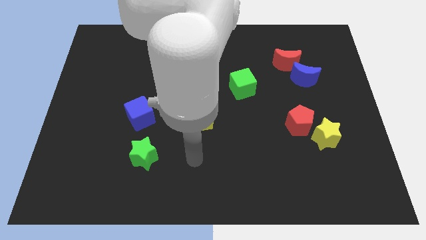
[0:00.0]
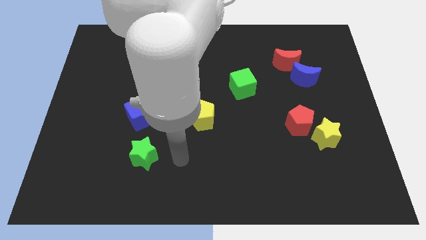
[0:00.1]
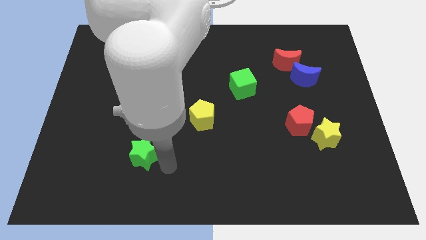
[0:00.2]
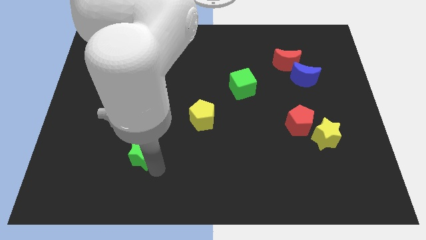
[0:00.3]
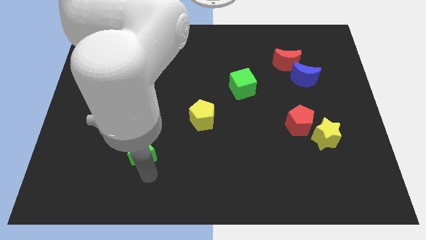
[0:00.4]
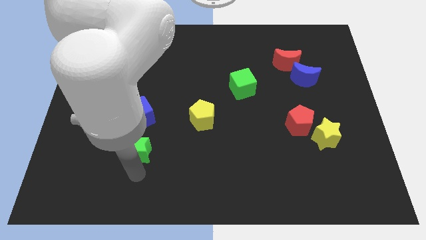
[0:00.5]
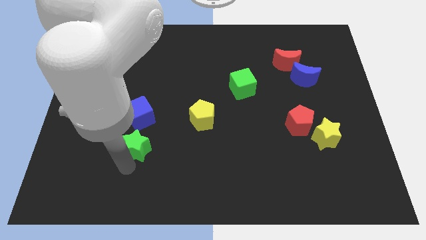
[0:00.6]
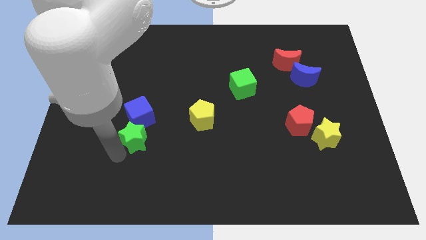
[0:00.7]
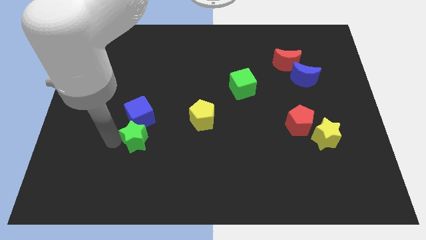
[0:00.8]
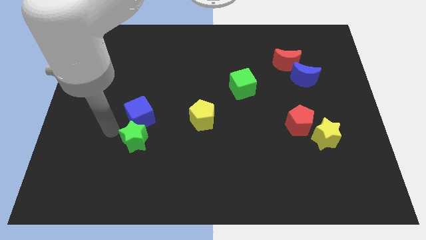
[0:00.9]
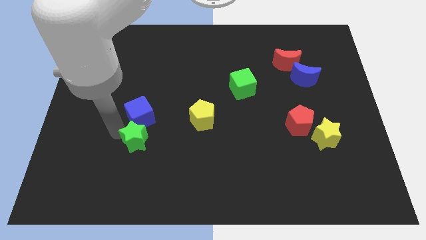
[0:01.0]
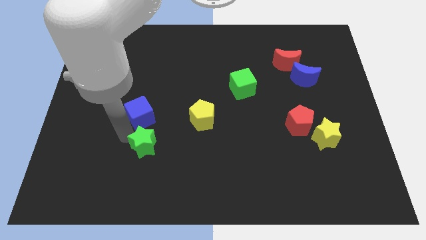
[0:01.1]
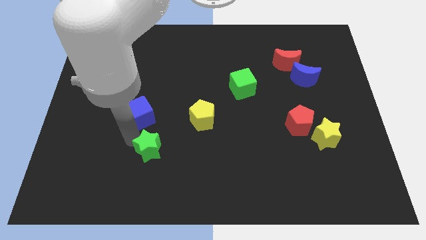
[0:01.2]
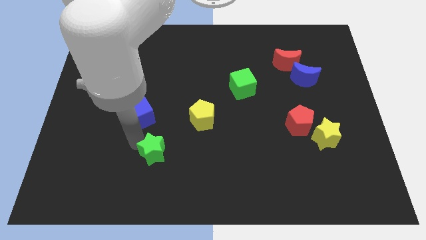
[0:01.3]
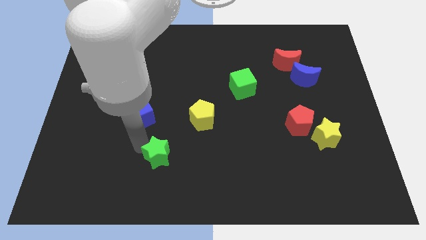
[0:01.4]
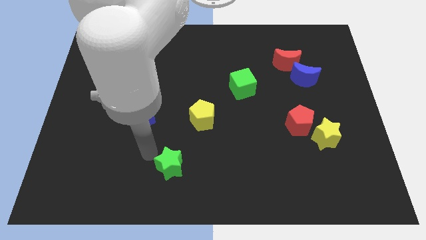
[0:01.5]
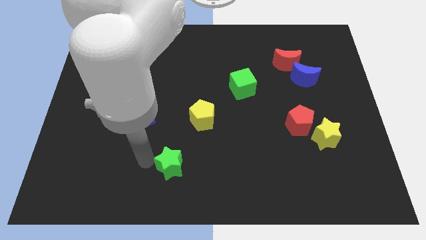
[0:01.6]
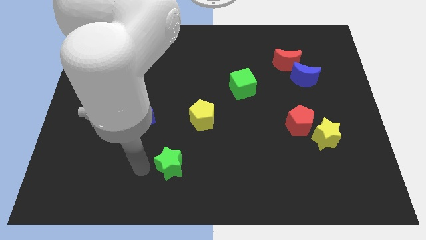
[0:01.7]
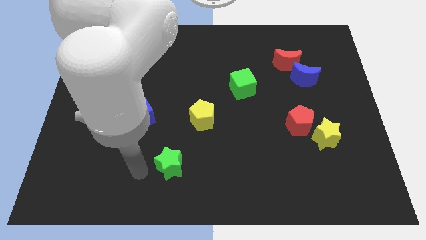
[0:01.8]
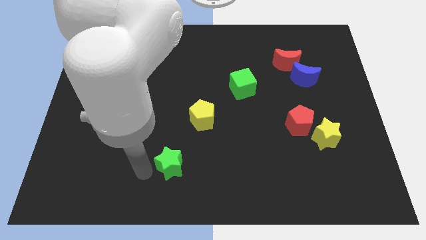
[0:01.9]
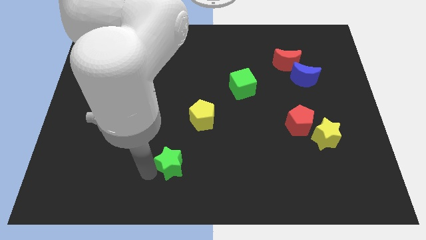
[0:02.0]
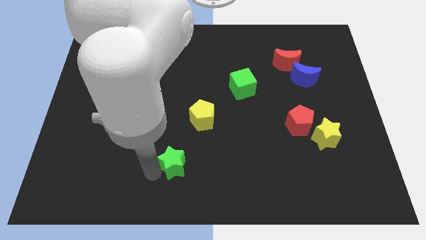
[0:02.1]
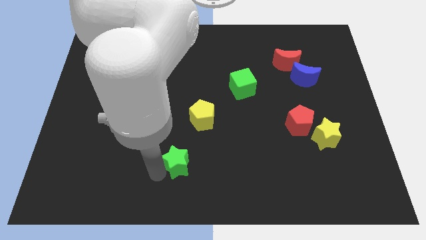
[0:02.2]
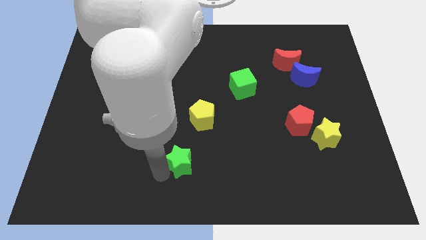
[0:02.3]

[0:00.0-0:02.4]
slightly move the green star right

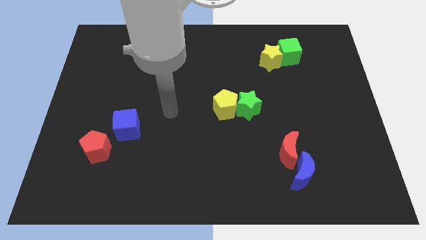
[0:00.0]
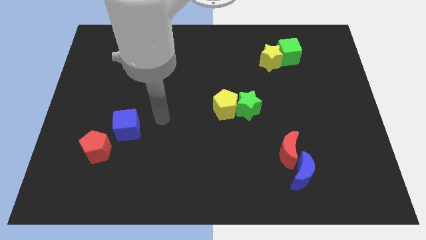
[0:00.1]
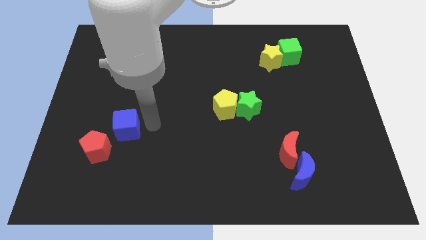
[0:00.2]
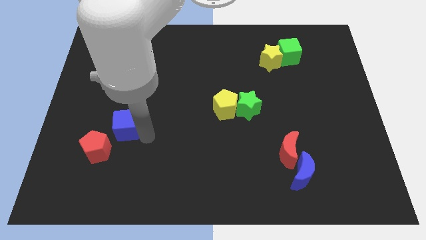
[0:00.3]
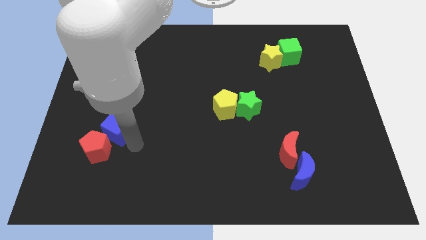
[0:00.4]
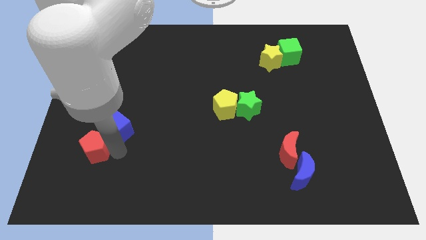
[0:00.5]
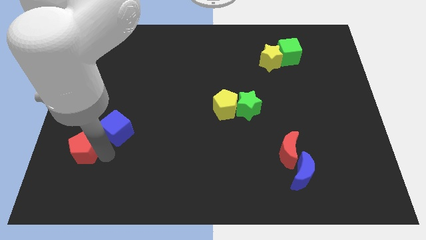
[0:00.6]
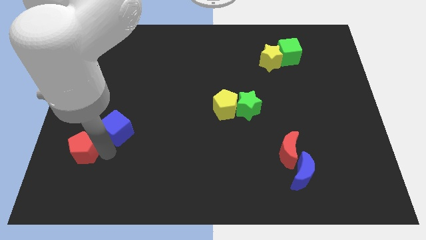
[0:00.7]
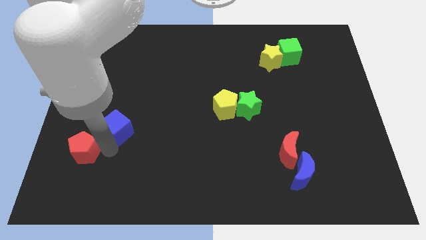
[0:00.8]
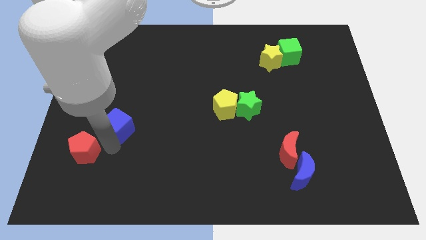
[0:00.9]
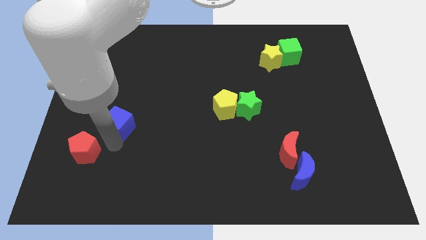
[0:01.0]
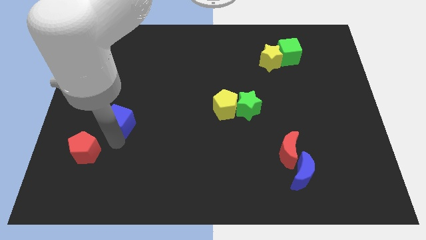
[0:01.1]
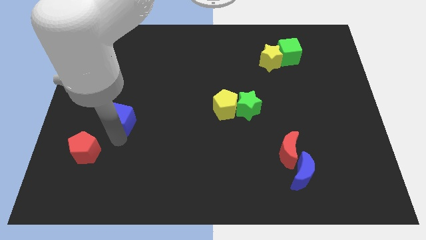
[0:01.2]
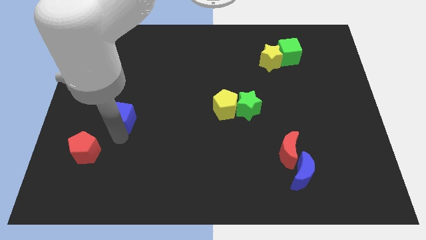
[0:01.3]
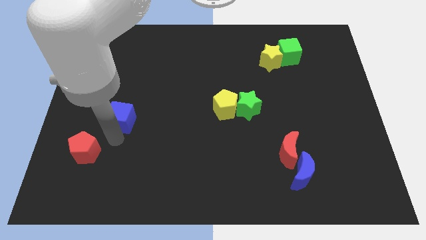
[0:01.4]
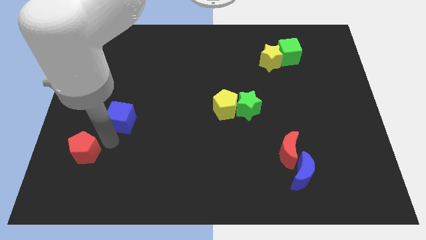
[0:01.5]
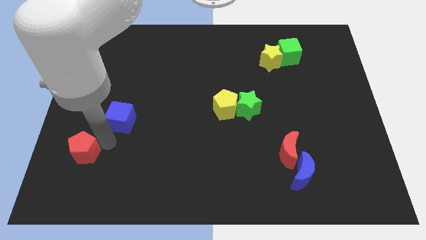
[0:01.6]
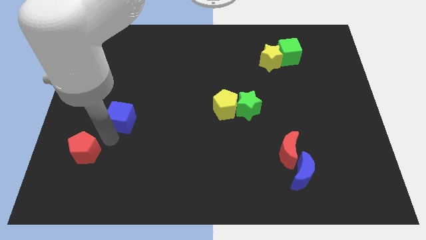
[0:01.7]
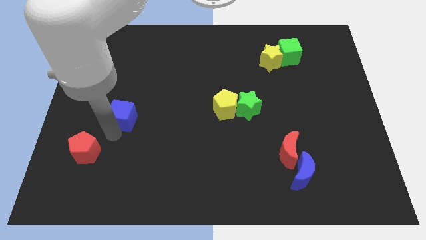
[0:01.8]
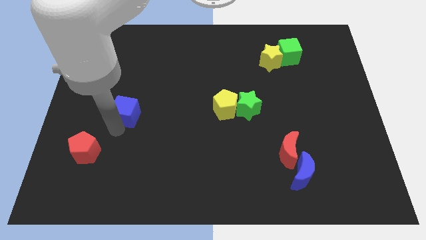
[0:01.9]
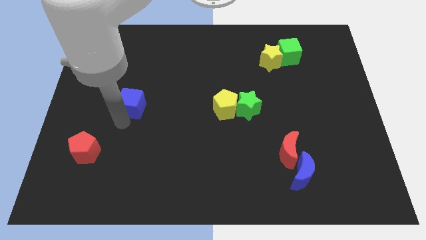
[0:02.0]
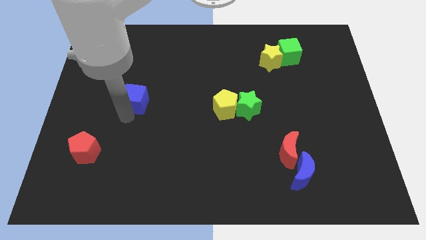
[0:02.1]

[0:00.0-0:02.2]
move the blue cube up slightly

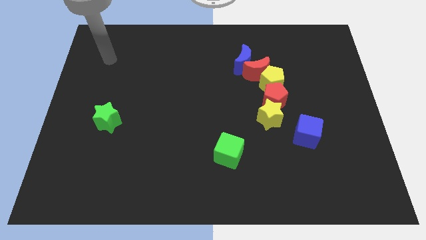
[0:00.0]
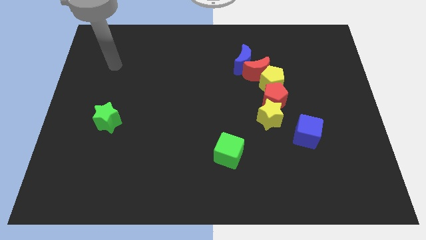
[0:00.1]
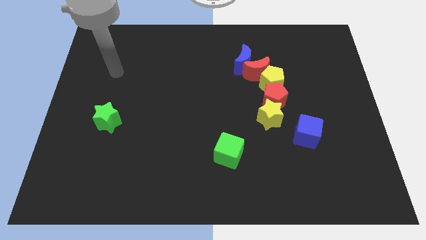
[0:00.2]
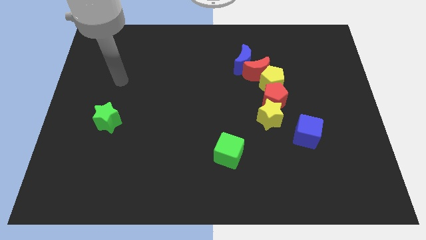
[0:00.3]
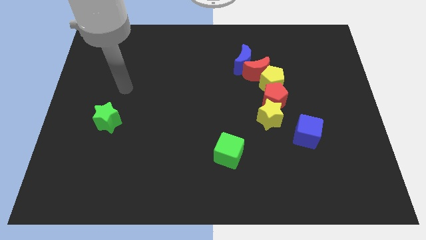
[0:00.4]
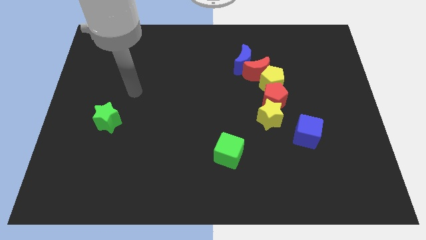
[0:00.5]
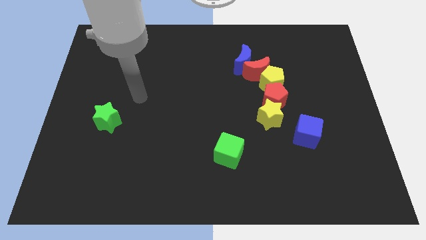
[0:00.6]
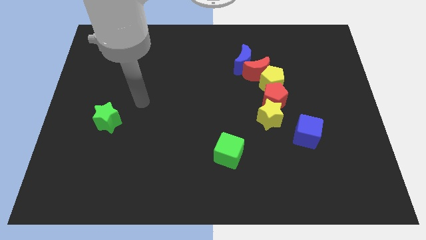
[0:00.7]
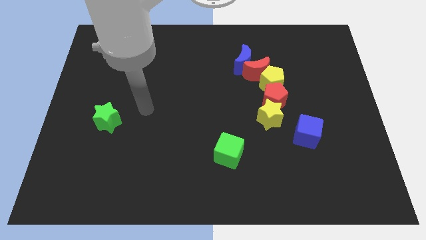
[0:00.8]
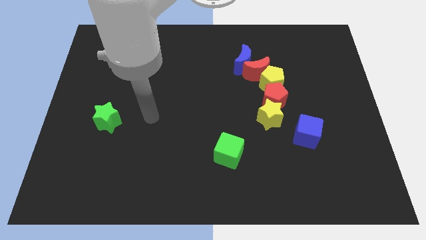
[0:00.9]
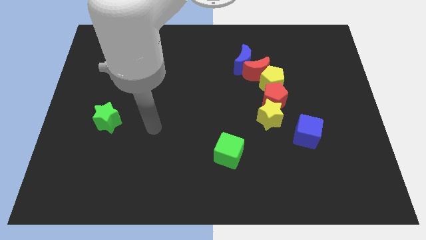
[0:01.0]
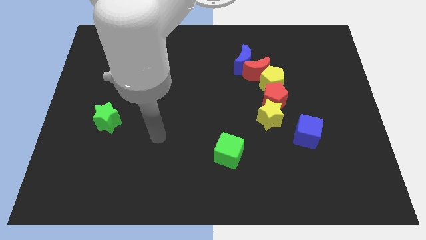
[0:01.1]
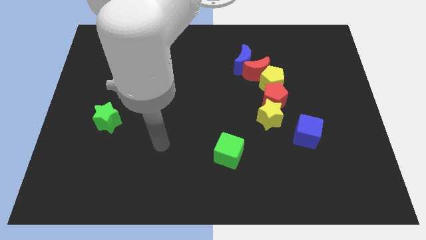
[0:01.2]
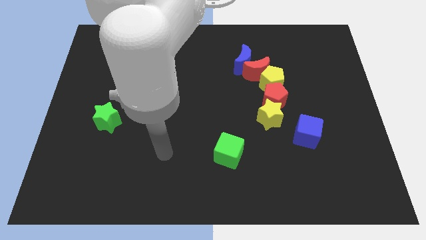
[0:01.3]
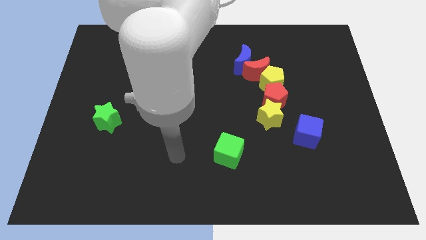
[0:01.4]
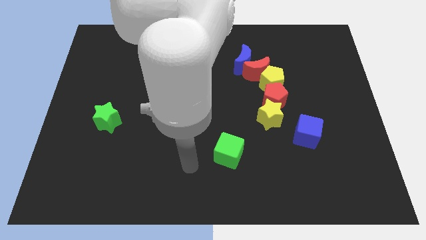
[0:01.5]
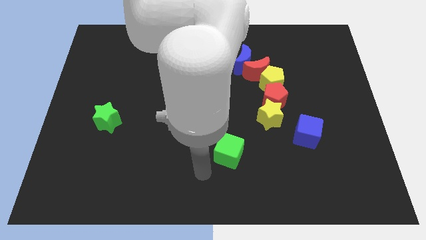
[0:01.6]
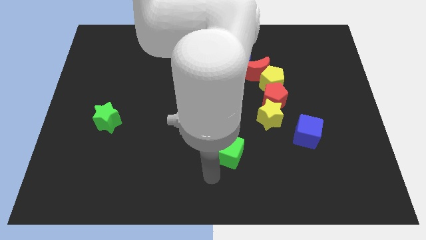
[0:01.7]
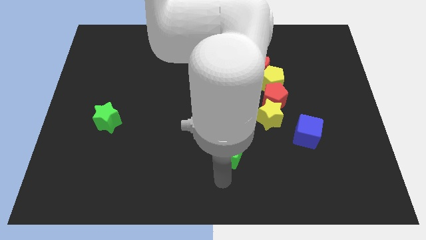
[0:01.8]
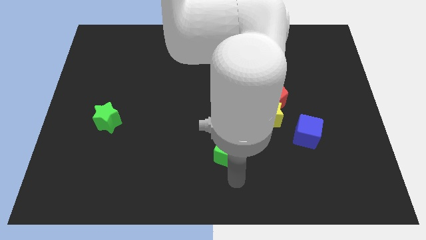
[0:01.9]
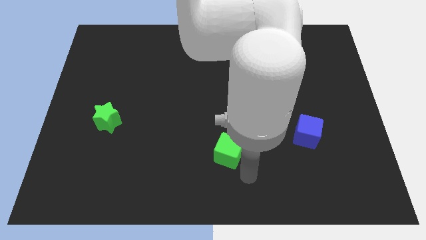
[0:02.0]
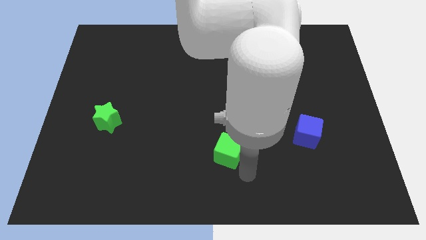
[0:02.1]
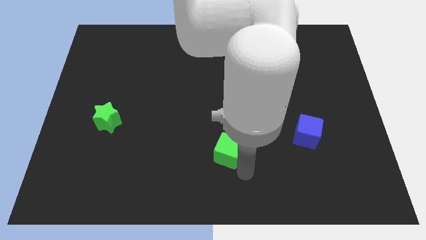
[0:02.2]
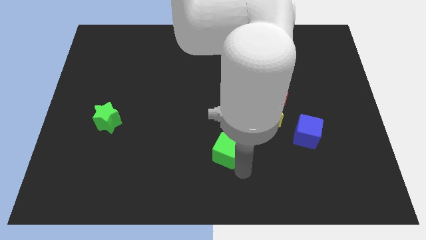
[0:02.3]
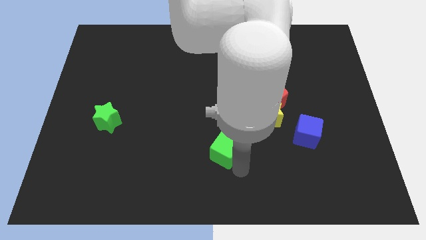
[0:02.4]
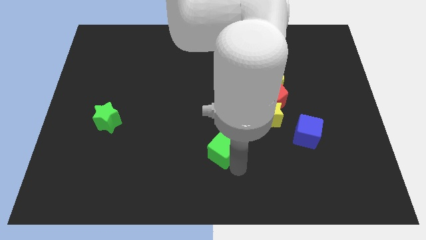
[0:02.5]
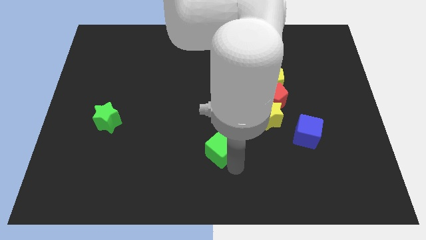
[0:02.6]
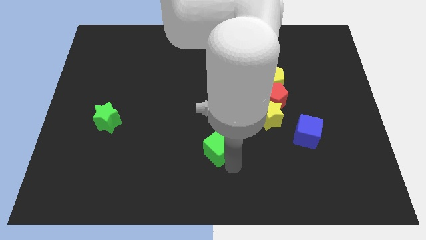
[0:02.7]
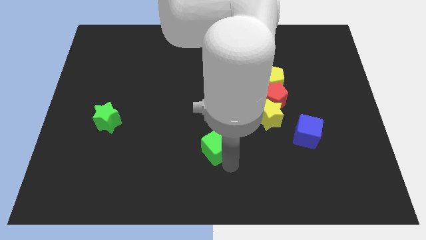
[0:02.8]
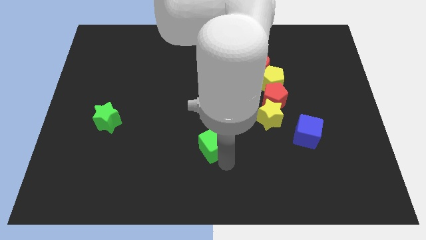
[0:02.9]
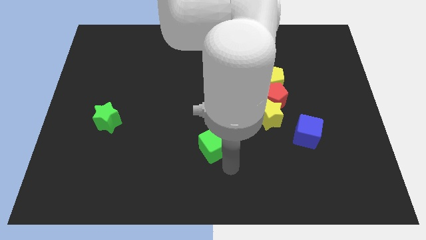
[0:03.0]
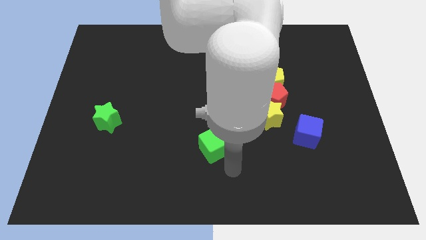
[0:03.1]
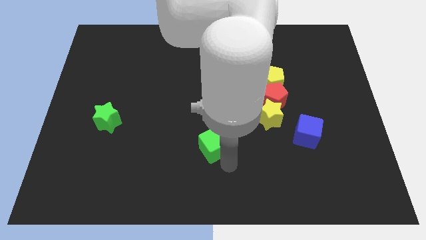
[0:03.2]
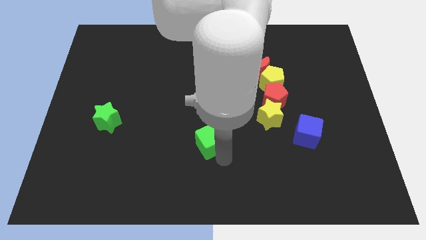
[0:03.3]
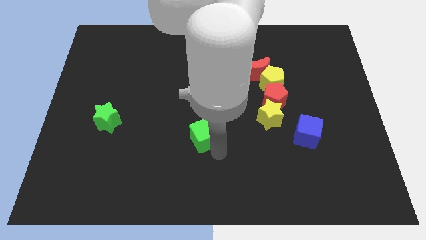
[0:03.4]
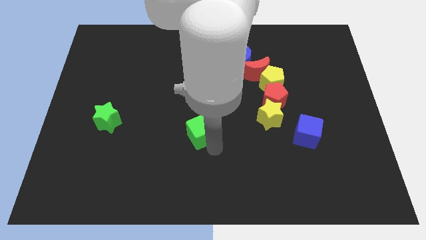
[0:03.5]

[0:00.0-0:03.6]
slide the green cube somewhat diagonally upwards and left

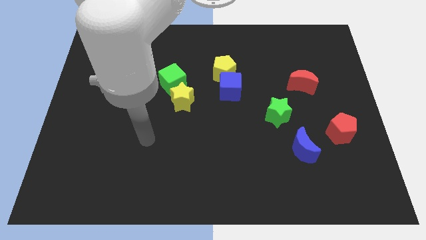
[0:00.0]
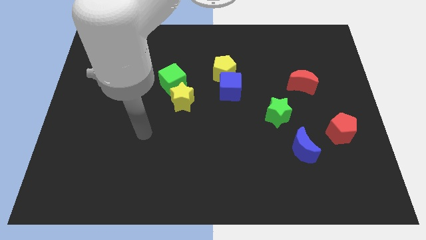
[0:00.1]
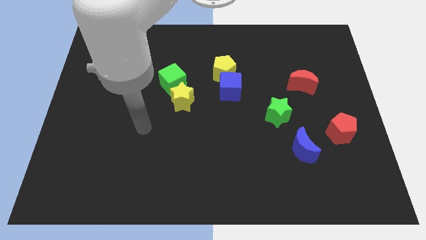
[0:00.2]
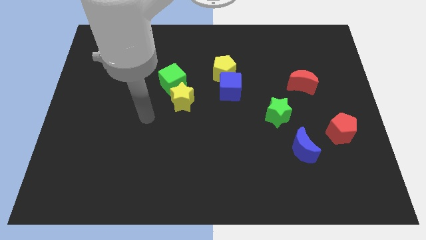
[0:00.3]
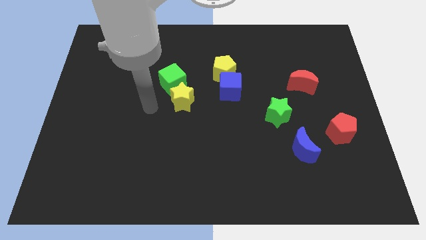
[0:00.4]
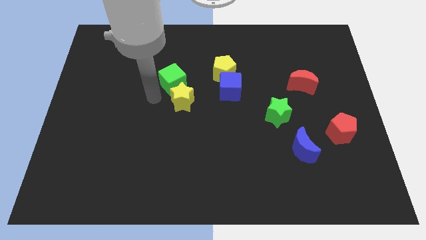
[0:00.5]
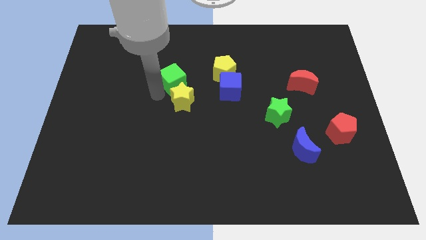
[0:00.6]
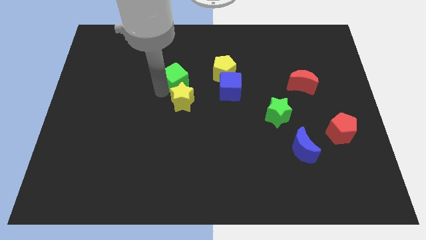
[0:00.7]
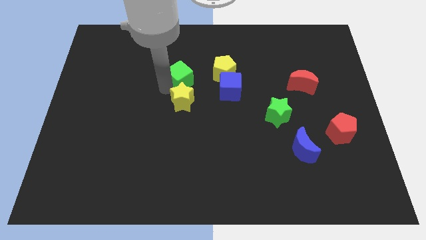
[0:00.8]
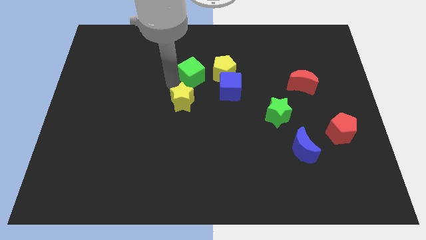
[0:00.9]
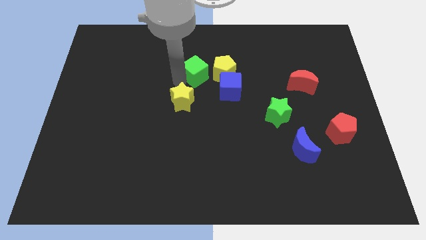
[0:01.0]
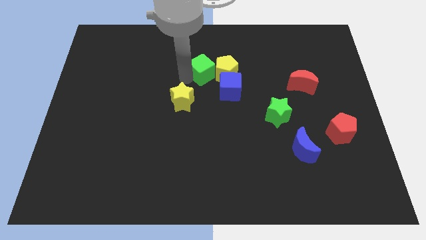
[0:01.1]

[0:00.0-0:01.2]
slightly push the green cube to the right
